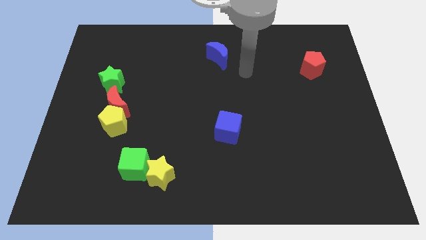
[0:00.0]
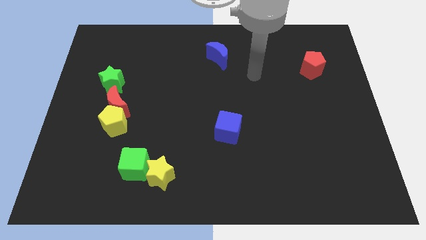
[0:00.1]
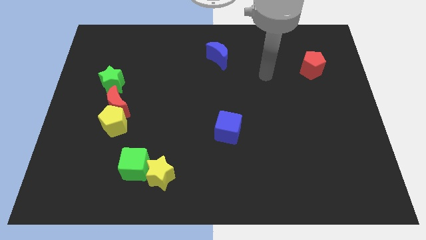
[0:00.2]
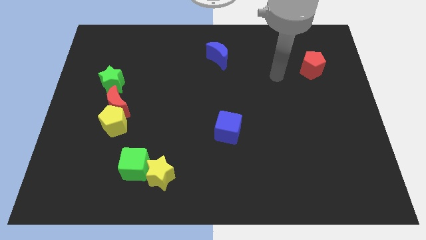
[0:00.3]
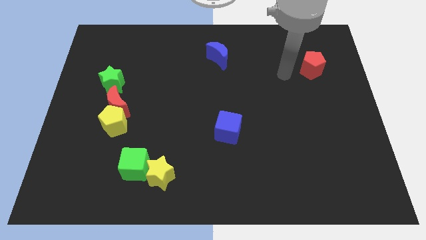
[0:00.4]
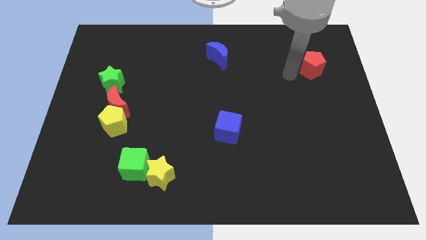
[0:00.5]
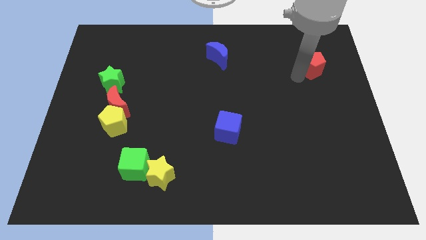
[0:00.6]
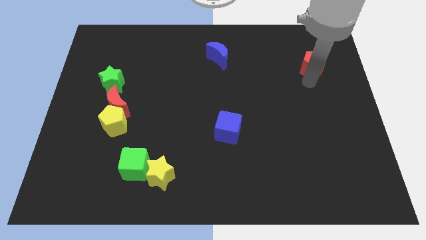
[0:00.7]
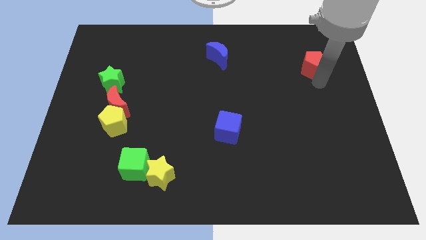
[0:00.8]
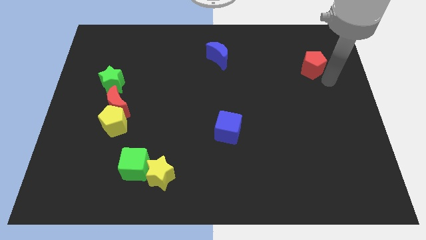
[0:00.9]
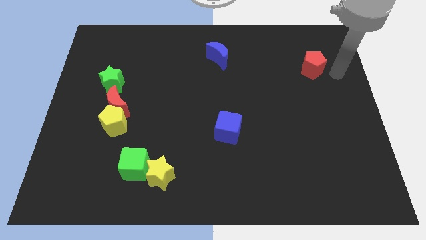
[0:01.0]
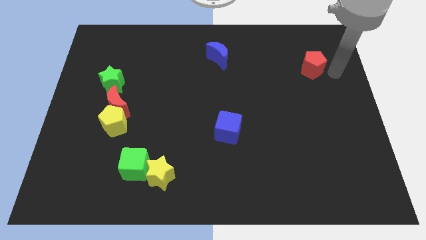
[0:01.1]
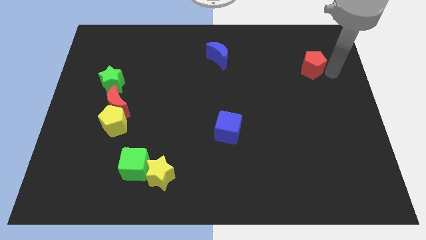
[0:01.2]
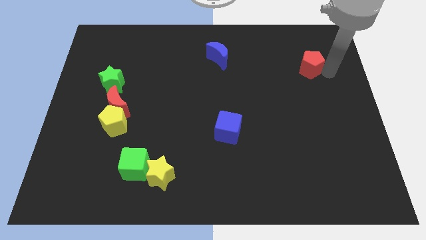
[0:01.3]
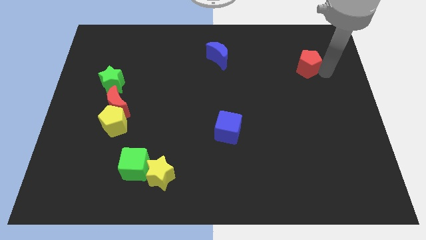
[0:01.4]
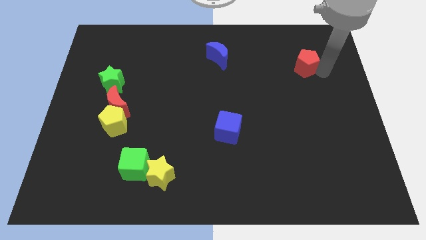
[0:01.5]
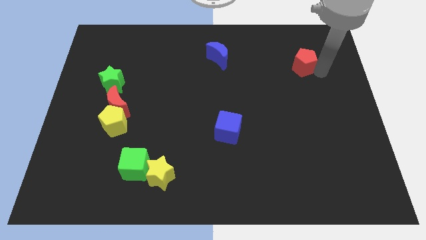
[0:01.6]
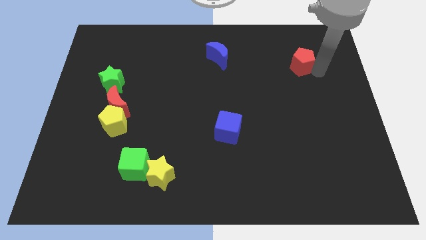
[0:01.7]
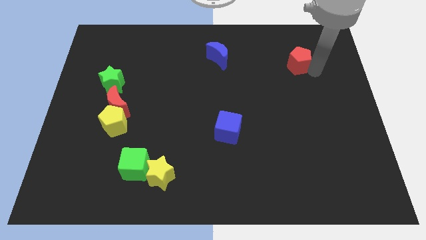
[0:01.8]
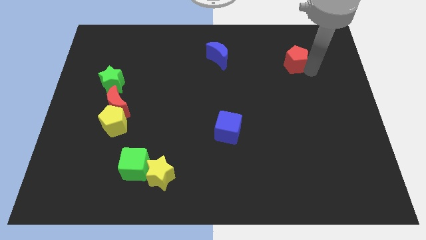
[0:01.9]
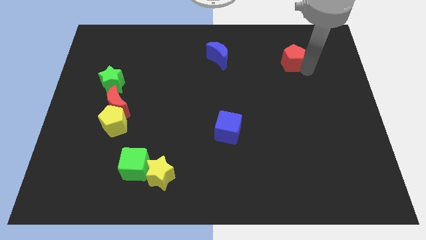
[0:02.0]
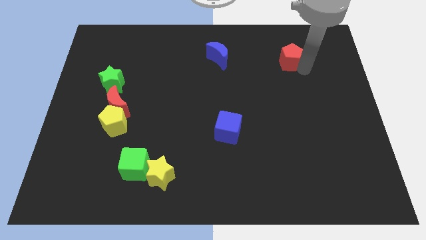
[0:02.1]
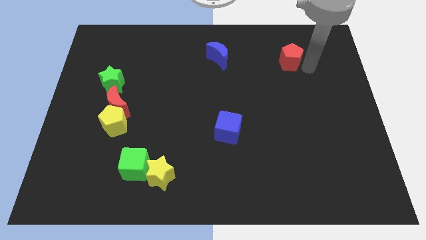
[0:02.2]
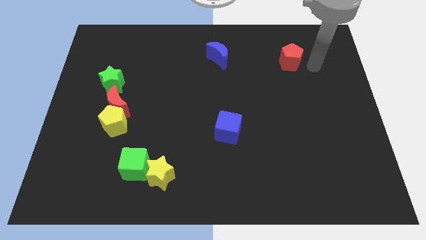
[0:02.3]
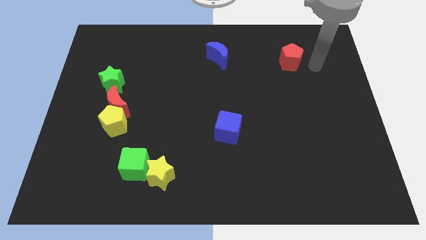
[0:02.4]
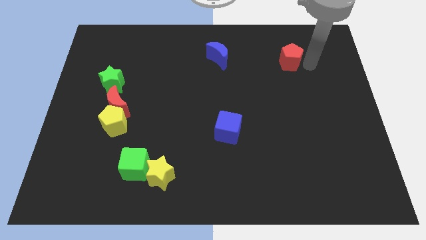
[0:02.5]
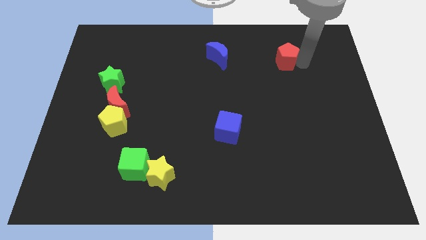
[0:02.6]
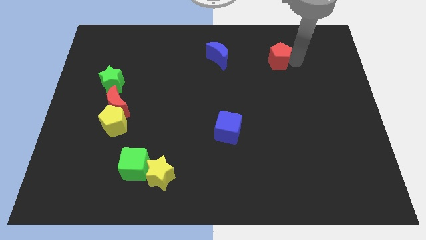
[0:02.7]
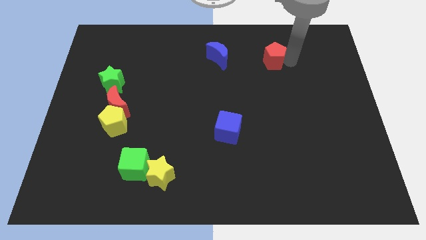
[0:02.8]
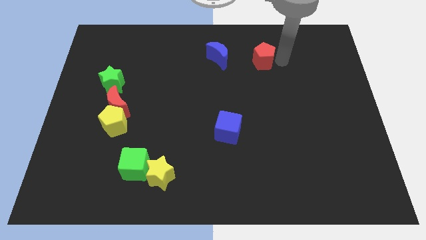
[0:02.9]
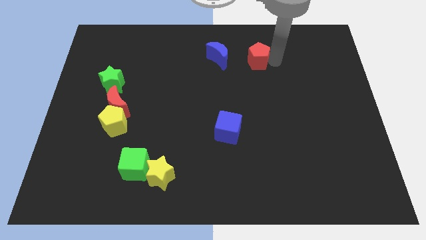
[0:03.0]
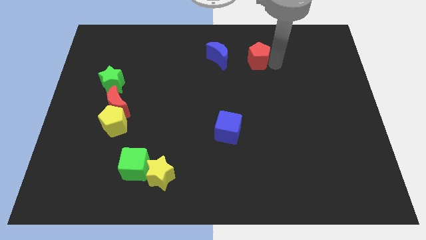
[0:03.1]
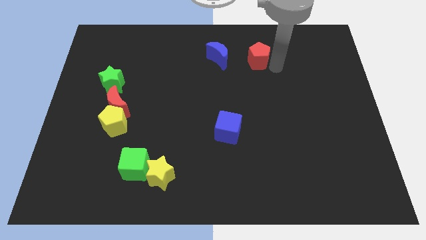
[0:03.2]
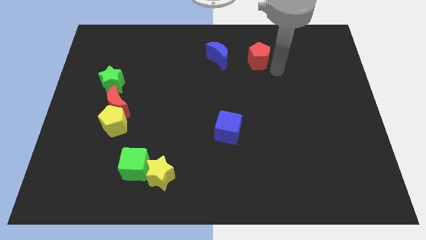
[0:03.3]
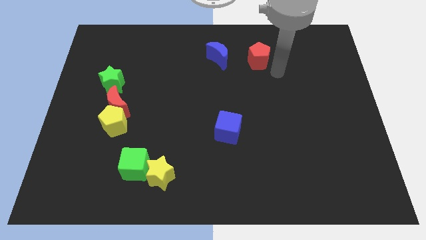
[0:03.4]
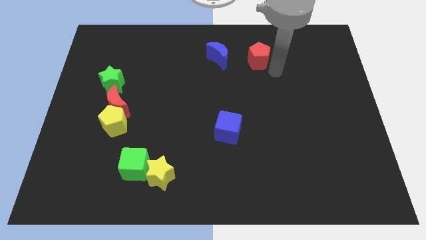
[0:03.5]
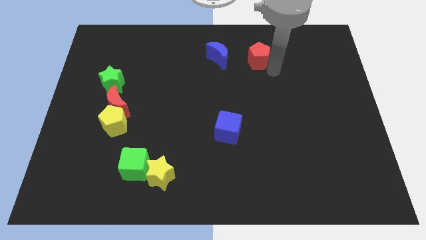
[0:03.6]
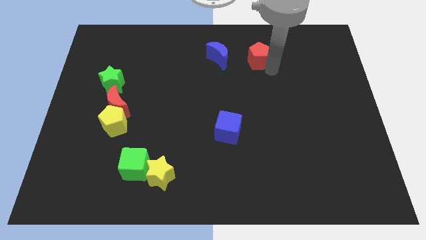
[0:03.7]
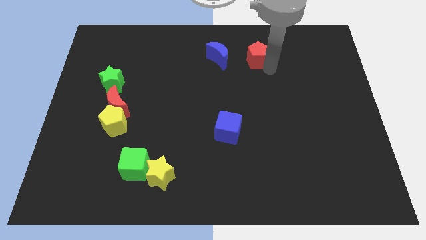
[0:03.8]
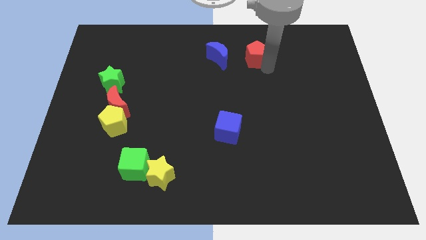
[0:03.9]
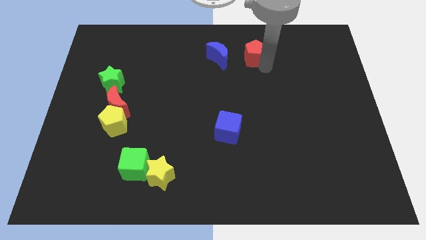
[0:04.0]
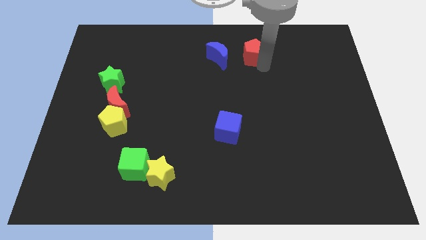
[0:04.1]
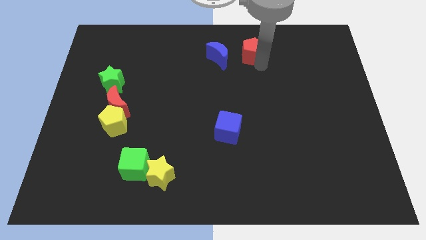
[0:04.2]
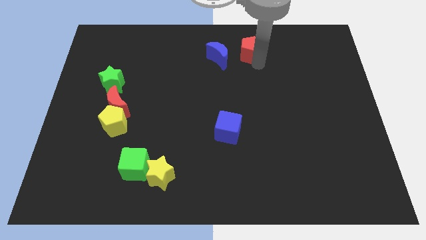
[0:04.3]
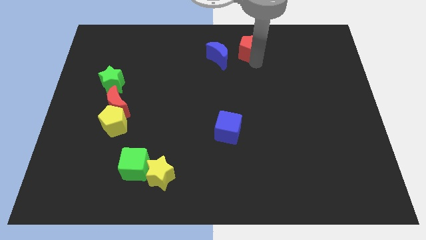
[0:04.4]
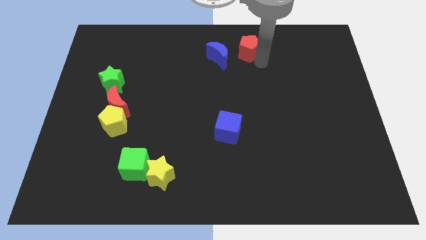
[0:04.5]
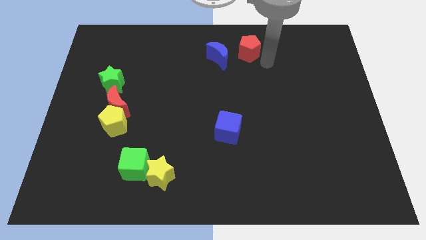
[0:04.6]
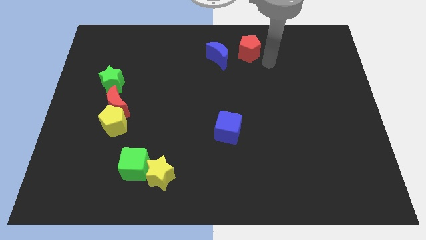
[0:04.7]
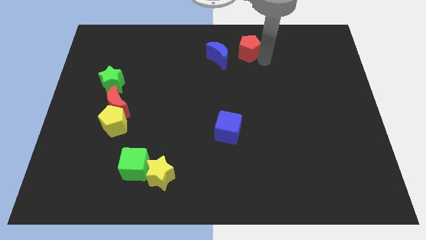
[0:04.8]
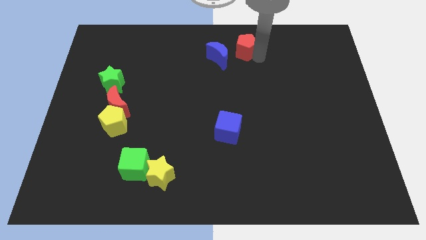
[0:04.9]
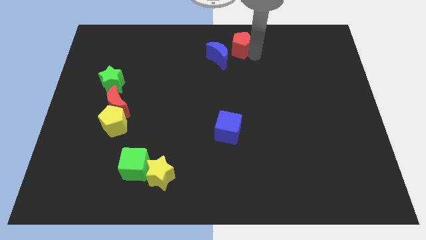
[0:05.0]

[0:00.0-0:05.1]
slide the red pentagon to the towards your base
